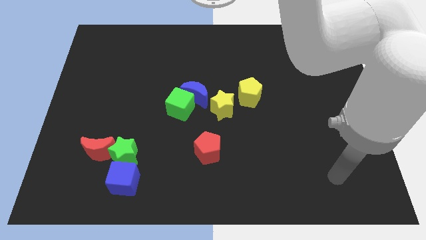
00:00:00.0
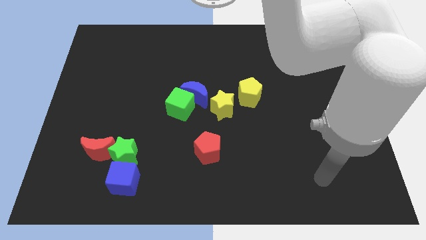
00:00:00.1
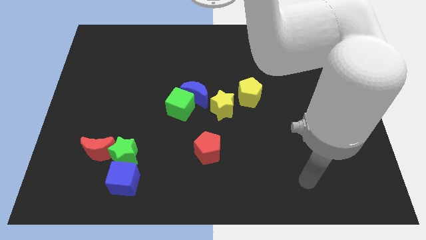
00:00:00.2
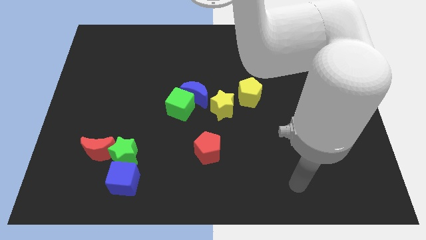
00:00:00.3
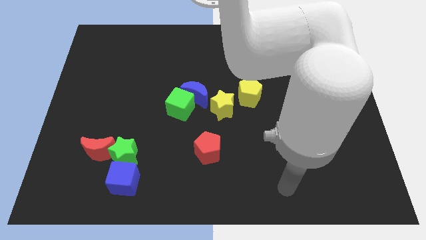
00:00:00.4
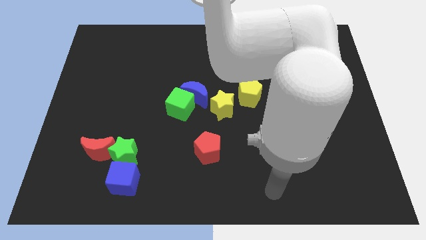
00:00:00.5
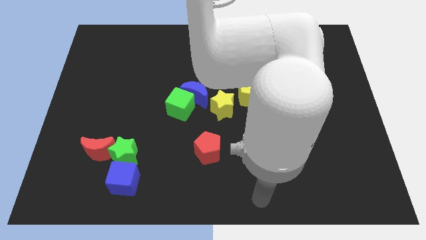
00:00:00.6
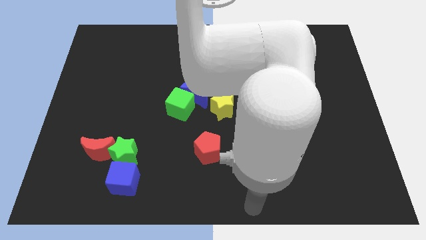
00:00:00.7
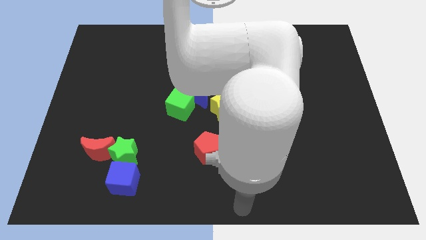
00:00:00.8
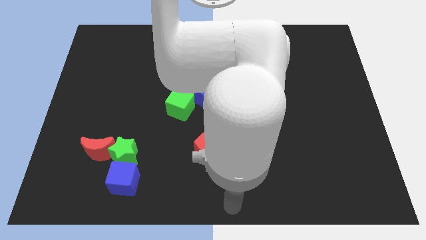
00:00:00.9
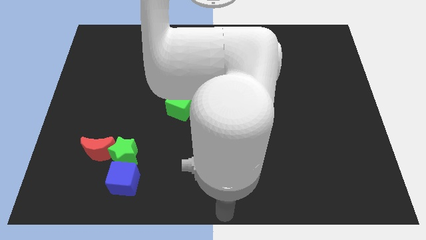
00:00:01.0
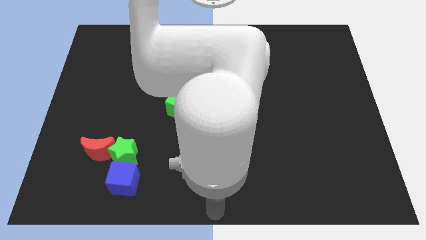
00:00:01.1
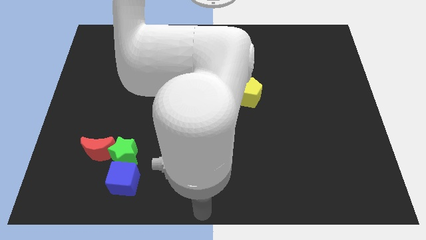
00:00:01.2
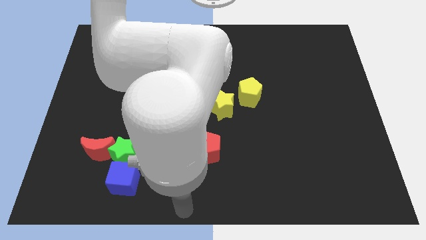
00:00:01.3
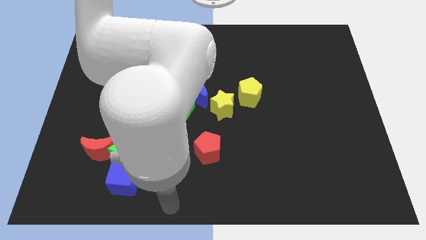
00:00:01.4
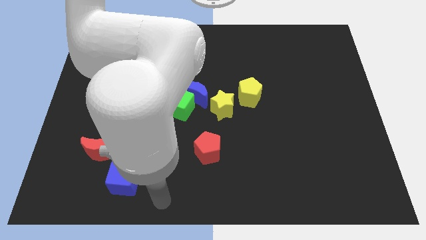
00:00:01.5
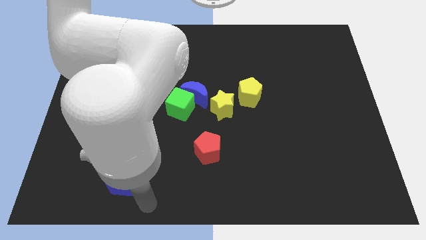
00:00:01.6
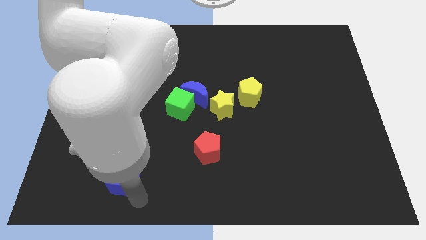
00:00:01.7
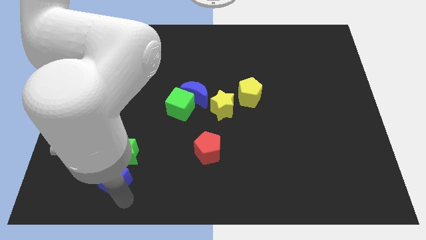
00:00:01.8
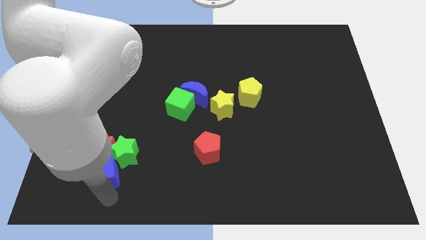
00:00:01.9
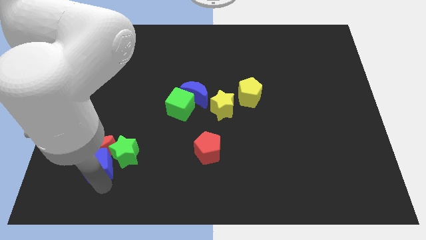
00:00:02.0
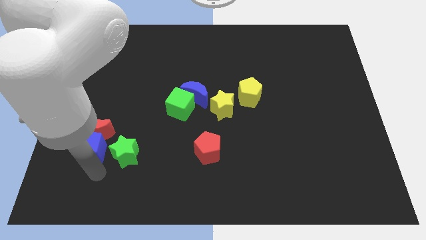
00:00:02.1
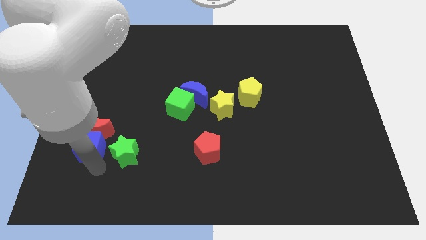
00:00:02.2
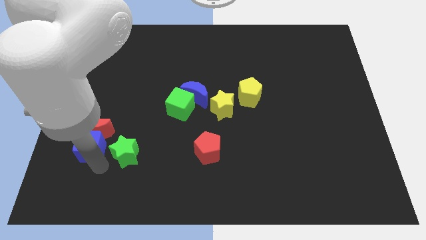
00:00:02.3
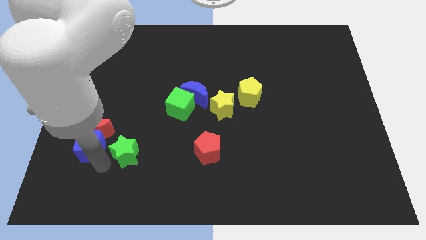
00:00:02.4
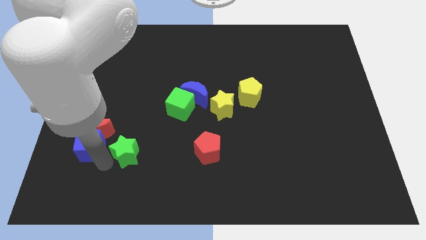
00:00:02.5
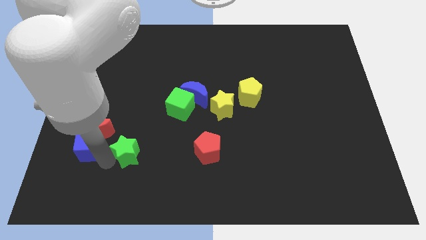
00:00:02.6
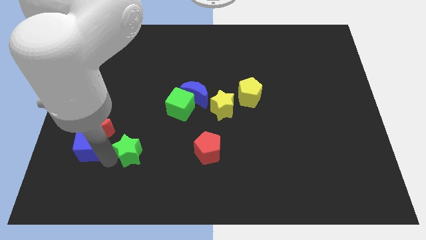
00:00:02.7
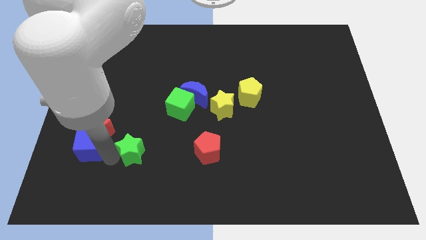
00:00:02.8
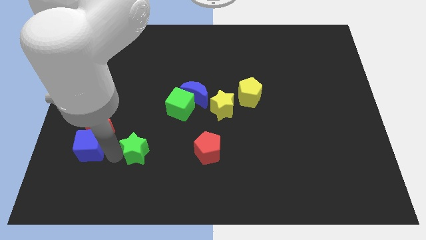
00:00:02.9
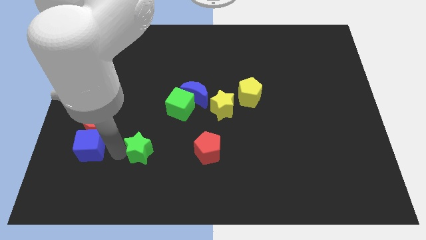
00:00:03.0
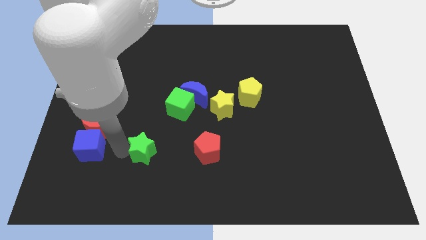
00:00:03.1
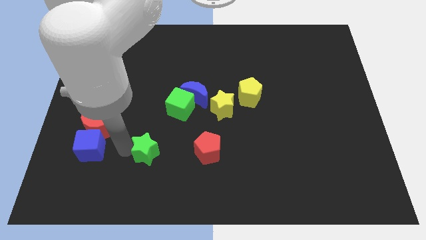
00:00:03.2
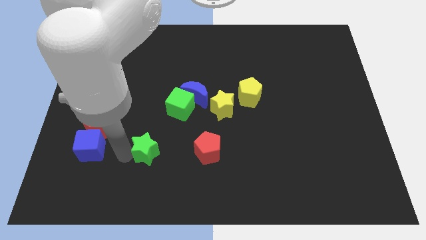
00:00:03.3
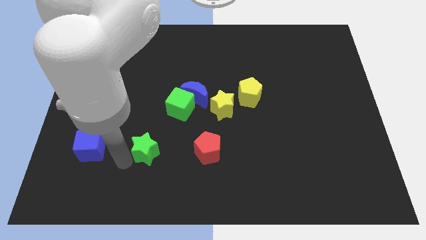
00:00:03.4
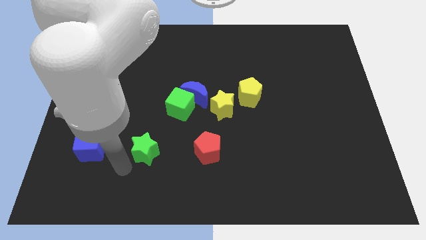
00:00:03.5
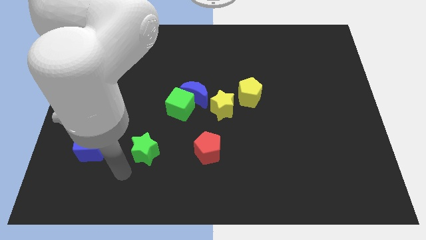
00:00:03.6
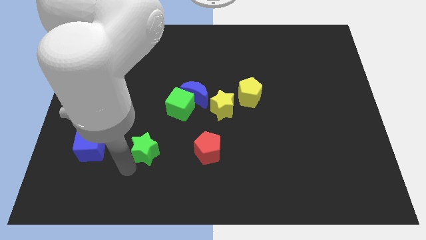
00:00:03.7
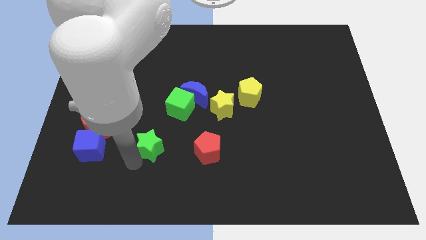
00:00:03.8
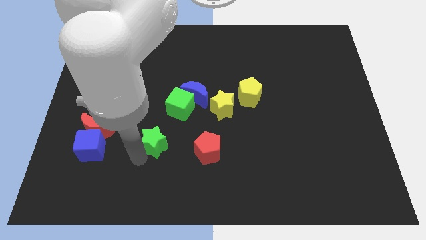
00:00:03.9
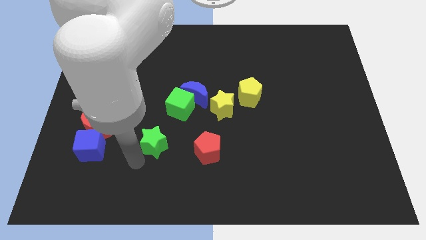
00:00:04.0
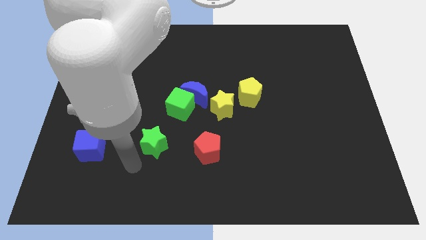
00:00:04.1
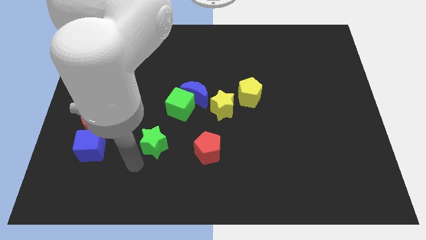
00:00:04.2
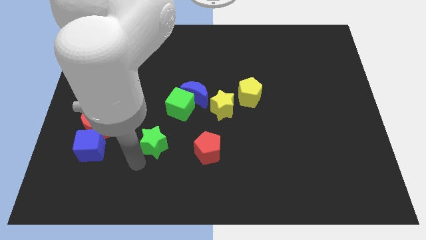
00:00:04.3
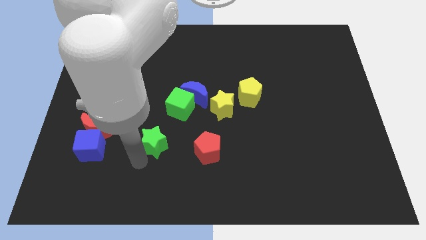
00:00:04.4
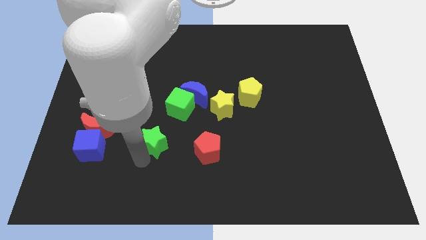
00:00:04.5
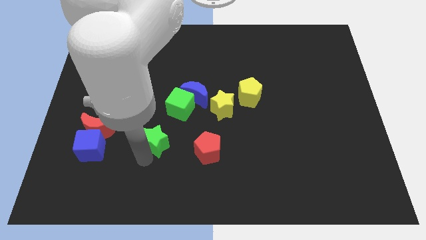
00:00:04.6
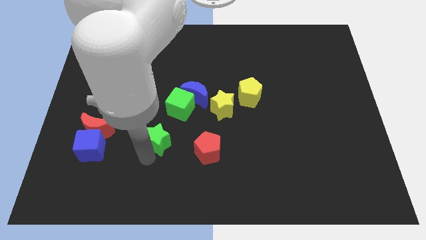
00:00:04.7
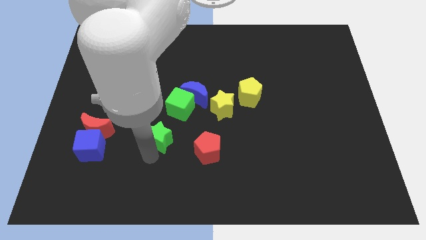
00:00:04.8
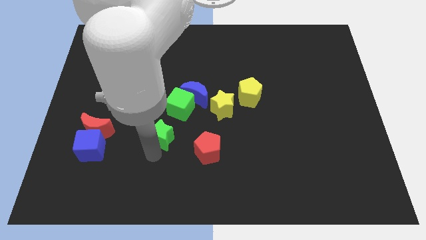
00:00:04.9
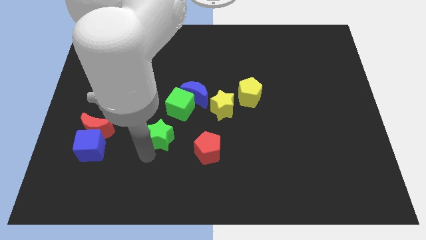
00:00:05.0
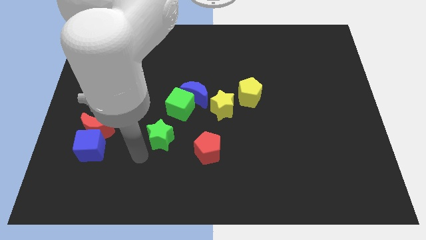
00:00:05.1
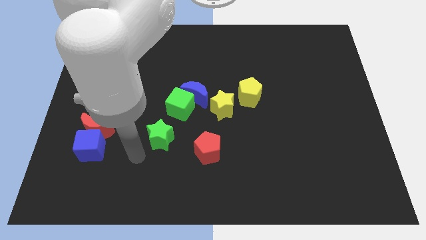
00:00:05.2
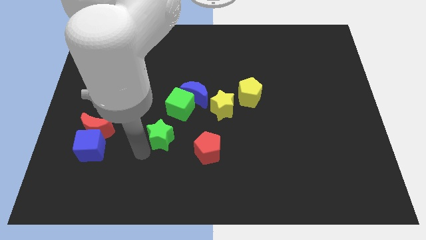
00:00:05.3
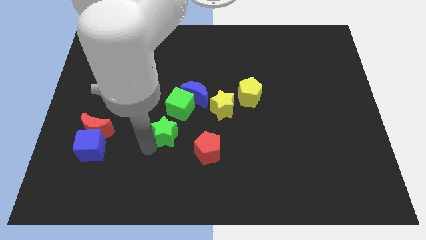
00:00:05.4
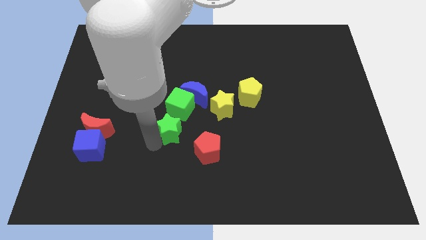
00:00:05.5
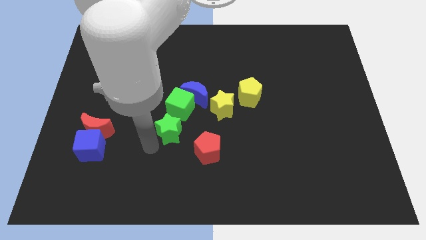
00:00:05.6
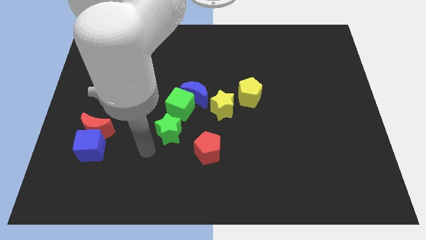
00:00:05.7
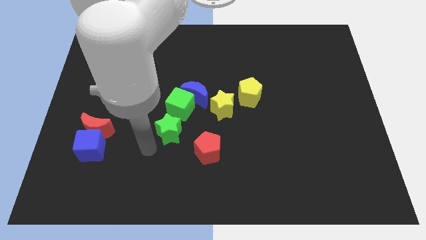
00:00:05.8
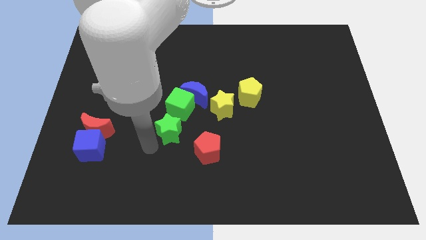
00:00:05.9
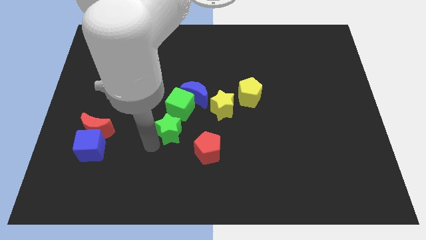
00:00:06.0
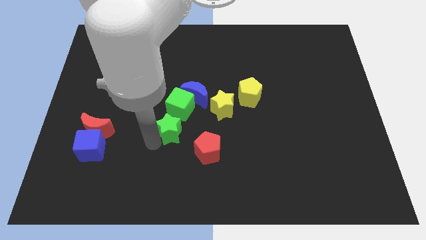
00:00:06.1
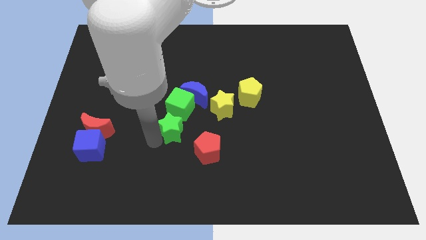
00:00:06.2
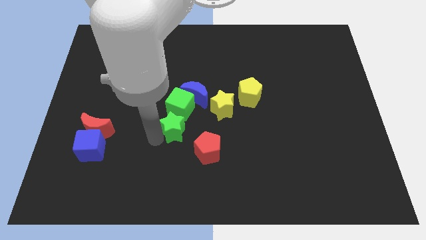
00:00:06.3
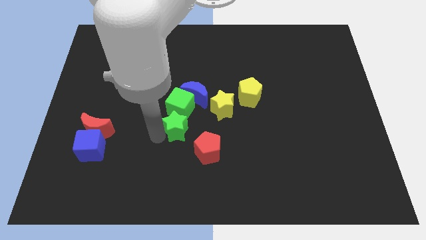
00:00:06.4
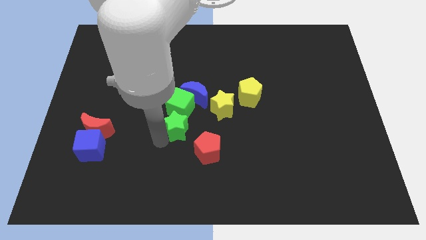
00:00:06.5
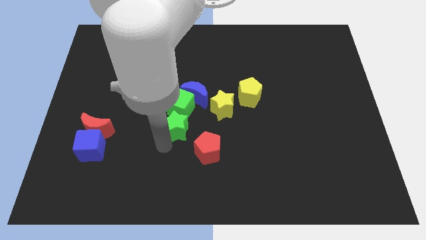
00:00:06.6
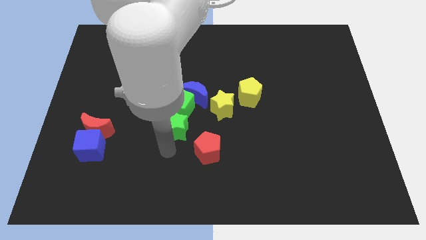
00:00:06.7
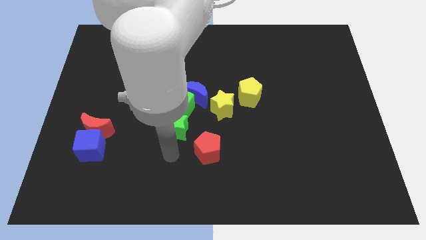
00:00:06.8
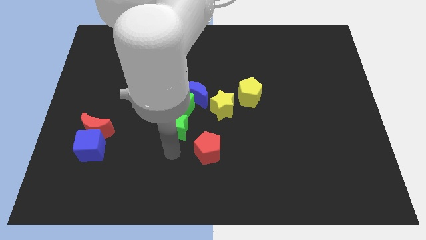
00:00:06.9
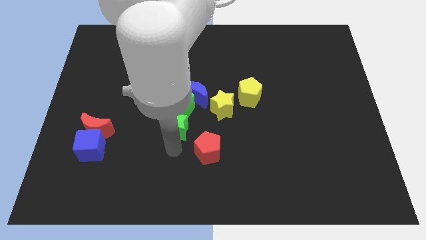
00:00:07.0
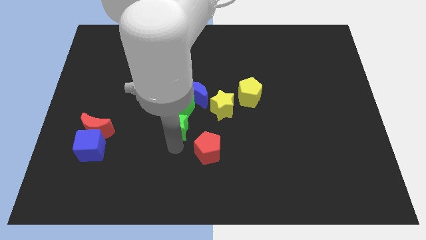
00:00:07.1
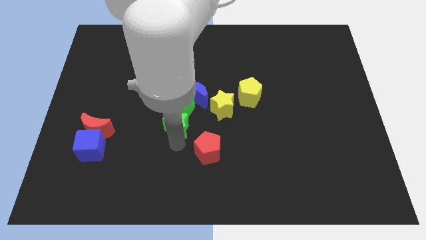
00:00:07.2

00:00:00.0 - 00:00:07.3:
push the green star to the green cube
